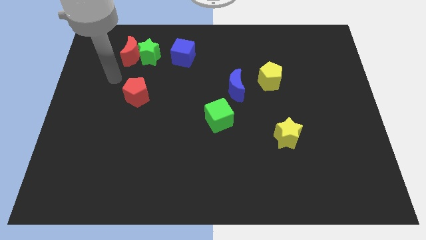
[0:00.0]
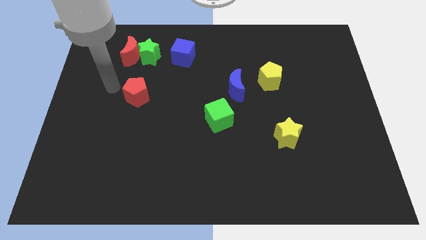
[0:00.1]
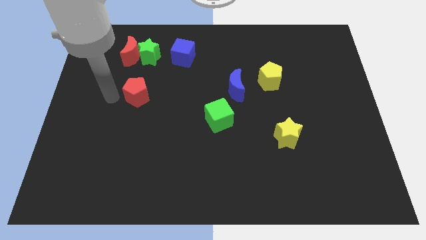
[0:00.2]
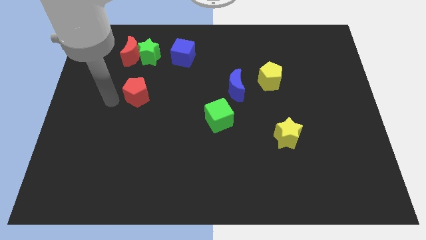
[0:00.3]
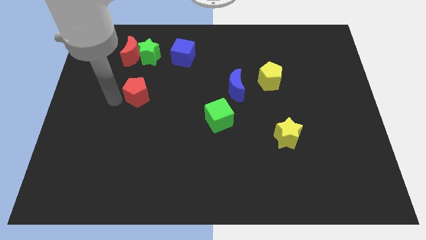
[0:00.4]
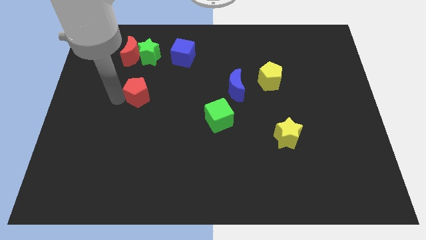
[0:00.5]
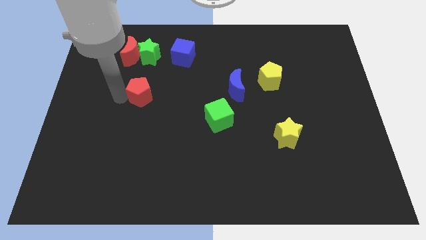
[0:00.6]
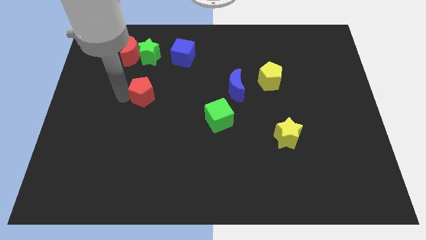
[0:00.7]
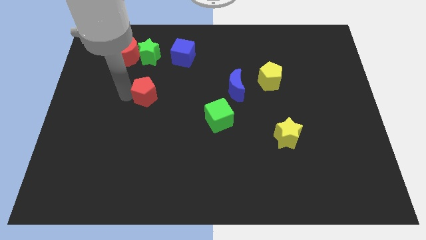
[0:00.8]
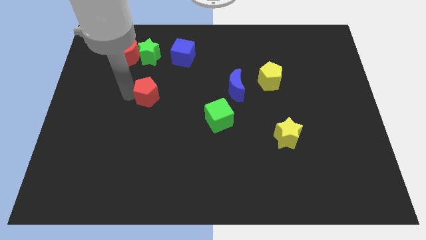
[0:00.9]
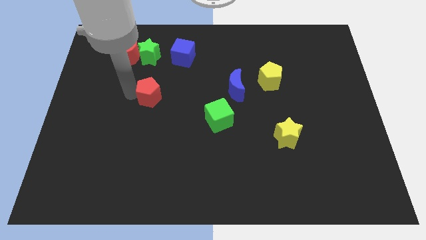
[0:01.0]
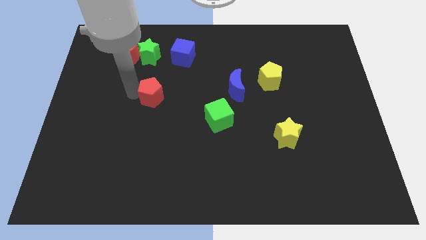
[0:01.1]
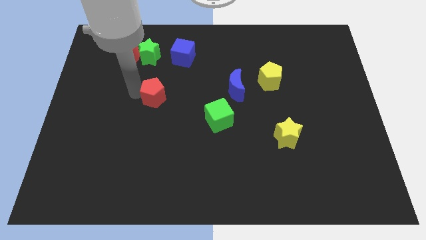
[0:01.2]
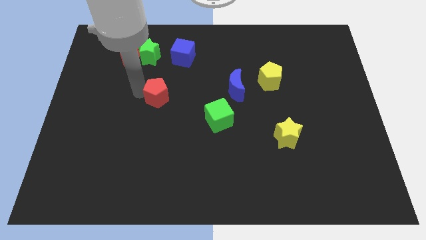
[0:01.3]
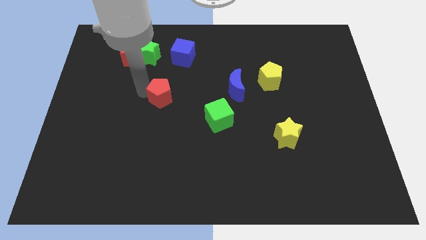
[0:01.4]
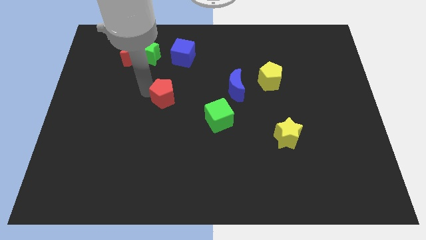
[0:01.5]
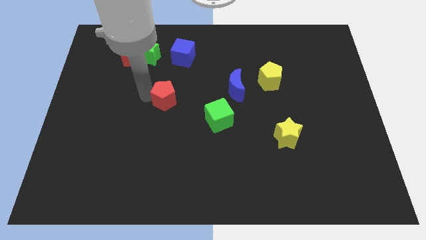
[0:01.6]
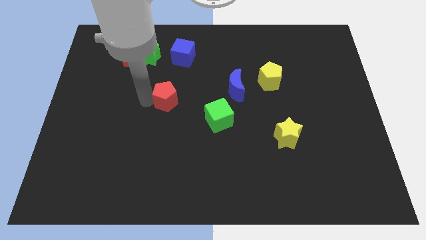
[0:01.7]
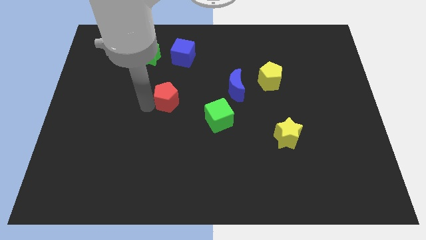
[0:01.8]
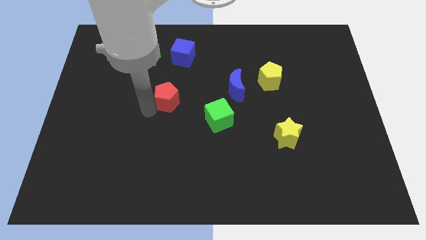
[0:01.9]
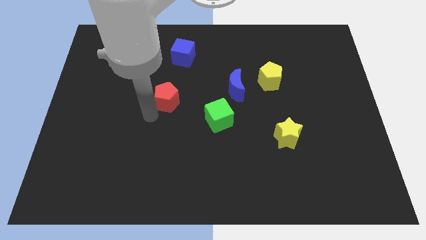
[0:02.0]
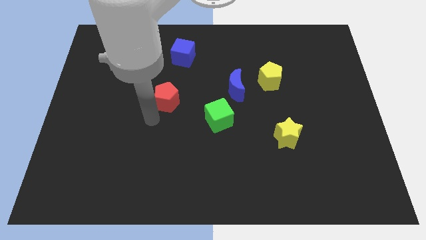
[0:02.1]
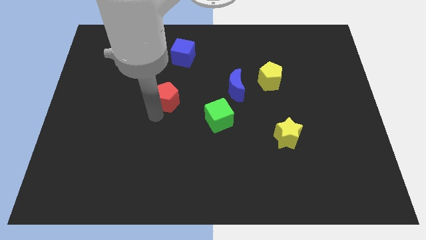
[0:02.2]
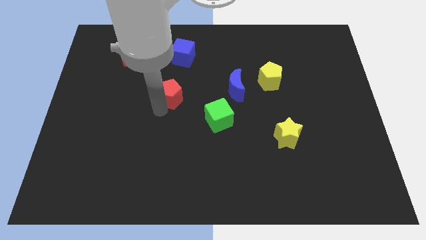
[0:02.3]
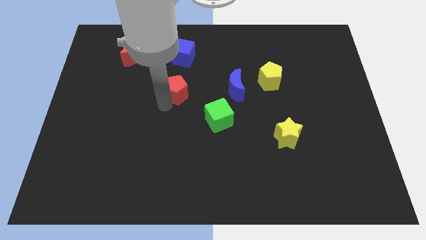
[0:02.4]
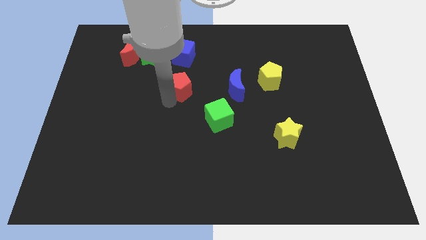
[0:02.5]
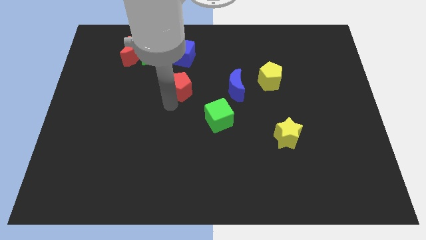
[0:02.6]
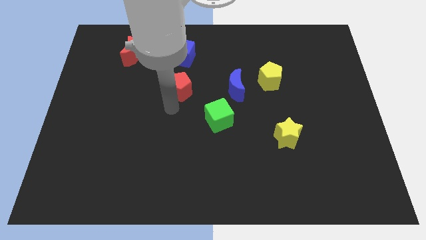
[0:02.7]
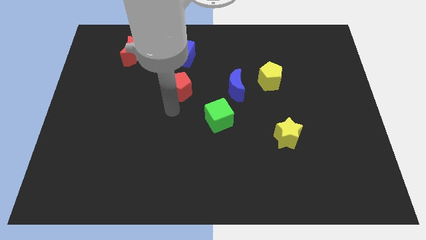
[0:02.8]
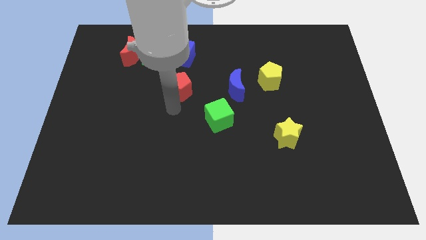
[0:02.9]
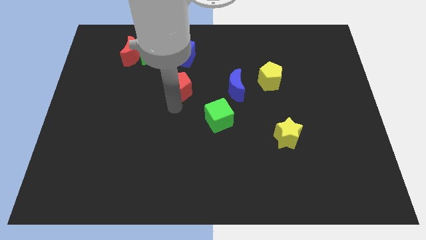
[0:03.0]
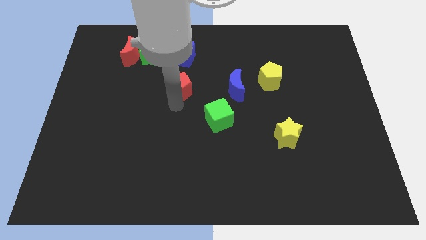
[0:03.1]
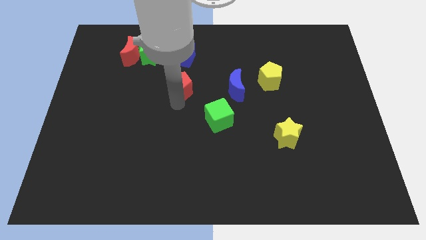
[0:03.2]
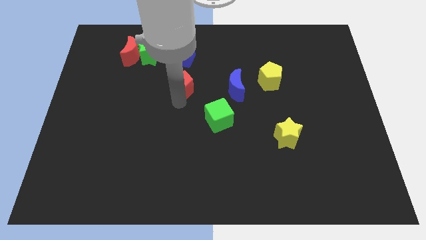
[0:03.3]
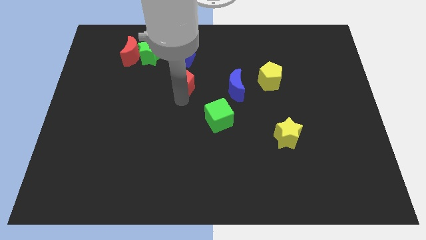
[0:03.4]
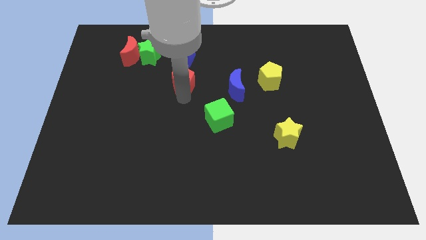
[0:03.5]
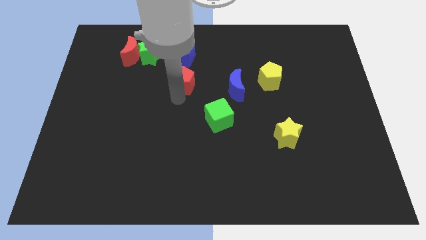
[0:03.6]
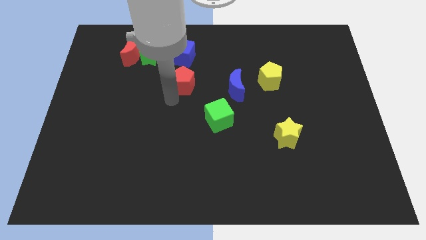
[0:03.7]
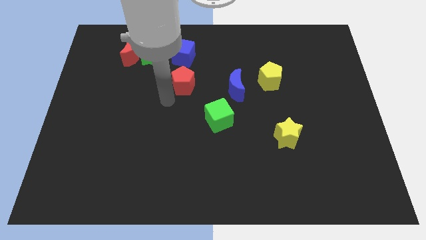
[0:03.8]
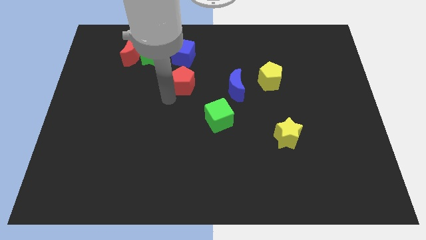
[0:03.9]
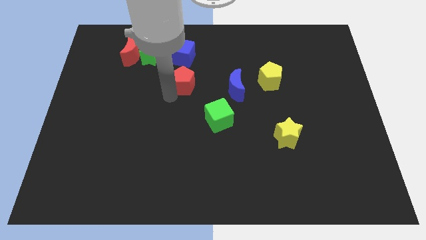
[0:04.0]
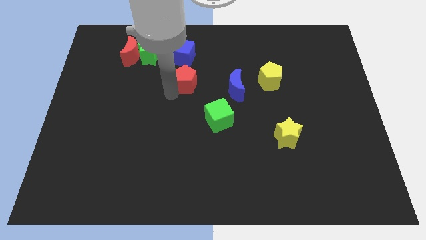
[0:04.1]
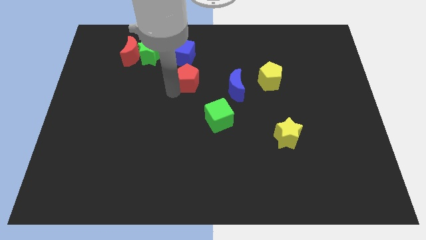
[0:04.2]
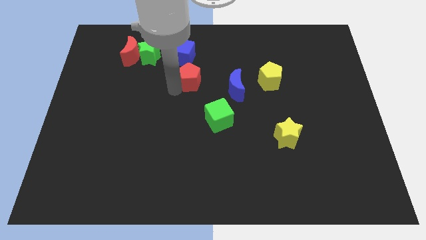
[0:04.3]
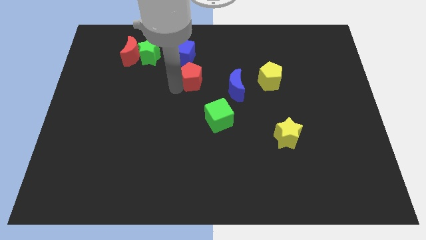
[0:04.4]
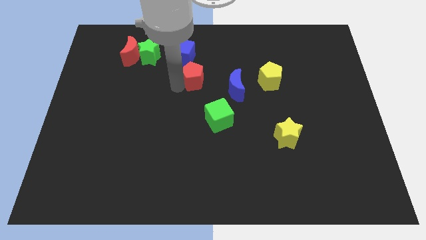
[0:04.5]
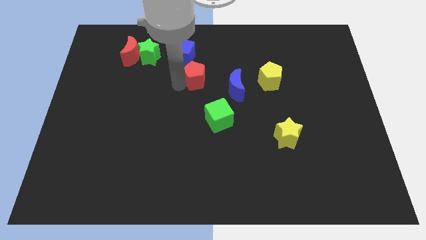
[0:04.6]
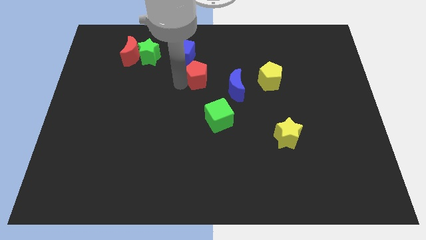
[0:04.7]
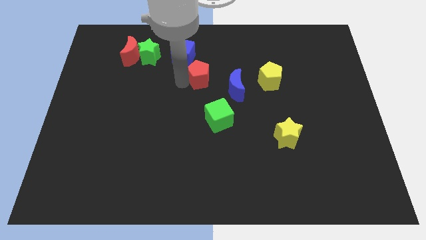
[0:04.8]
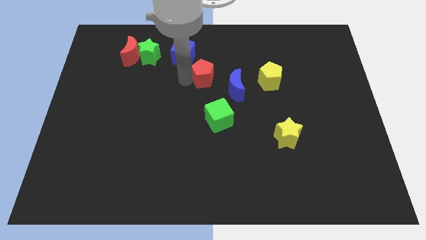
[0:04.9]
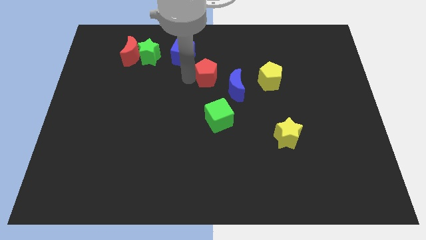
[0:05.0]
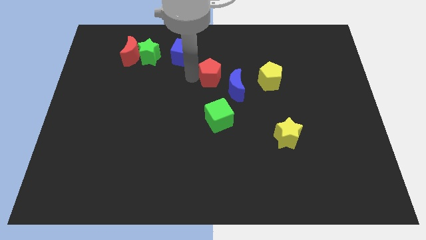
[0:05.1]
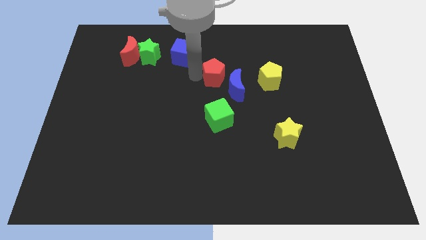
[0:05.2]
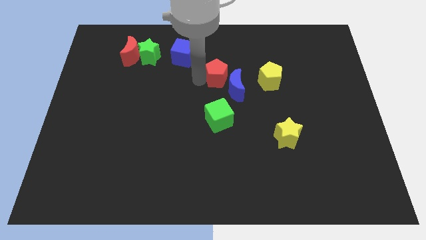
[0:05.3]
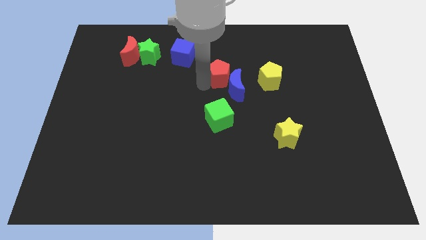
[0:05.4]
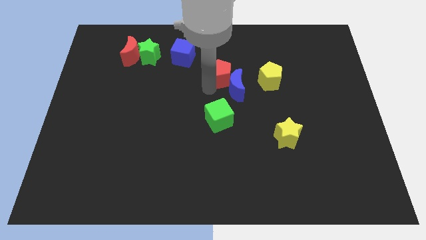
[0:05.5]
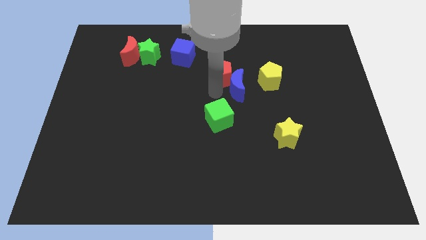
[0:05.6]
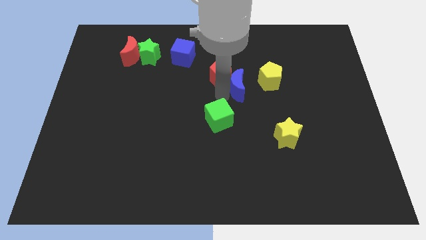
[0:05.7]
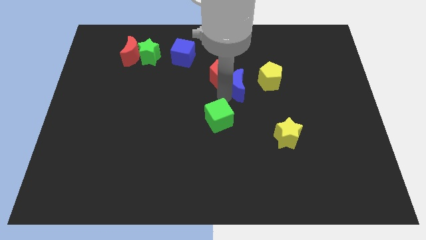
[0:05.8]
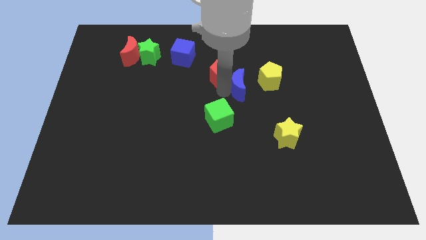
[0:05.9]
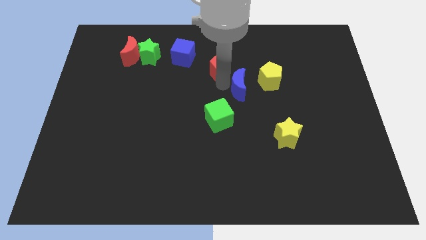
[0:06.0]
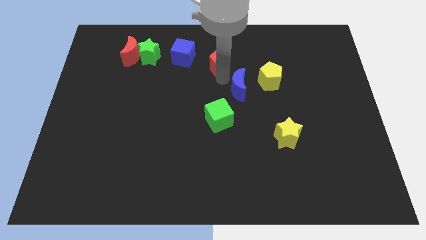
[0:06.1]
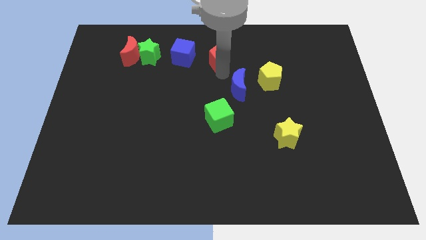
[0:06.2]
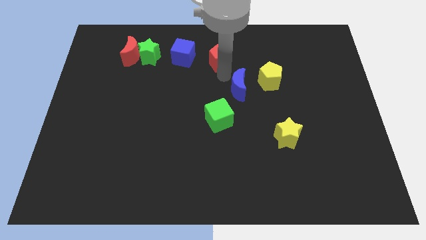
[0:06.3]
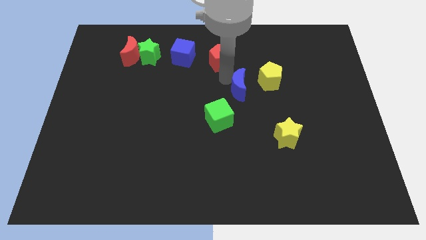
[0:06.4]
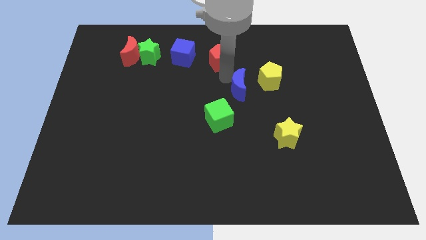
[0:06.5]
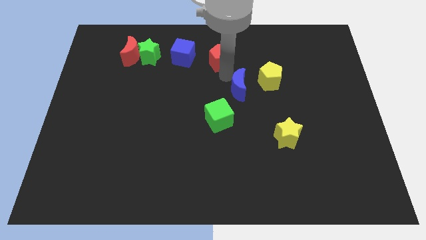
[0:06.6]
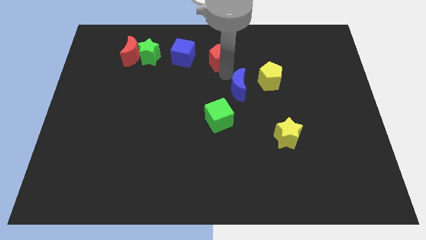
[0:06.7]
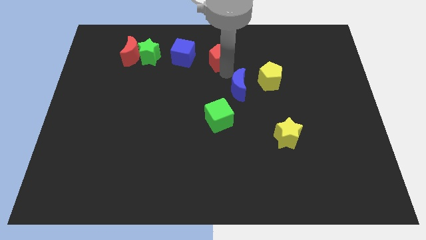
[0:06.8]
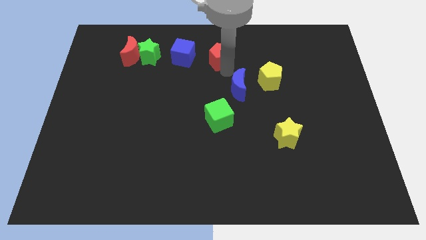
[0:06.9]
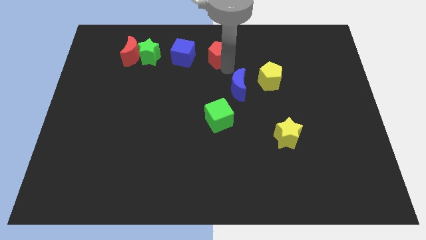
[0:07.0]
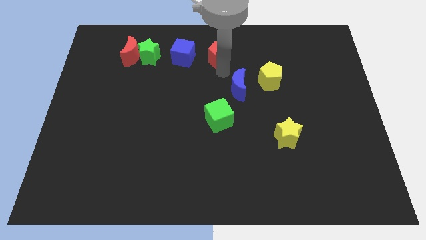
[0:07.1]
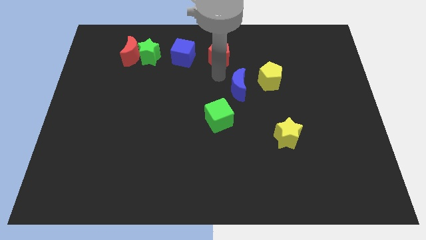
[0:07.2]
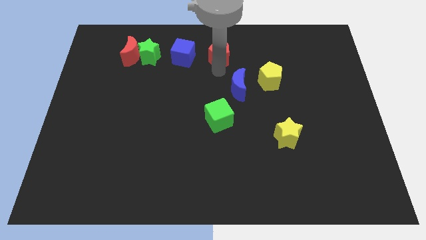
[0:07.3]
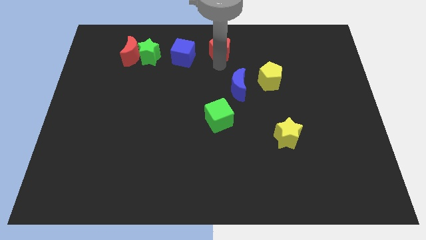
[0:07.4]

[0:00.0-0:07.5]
put the red pentagon to the towards your base
